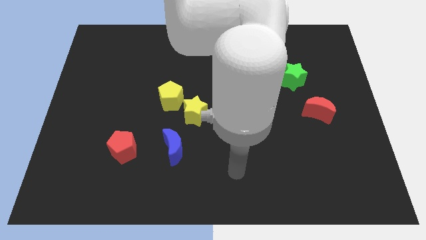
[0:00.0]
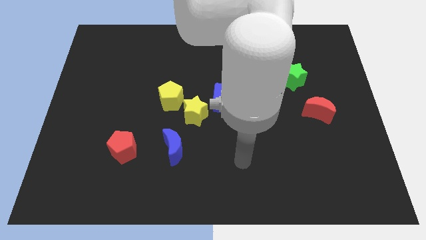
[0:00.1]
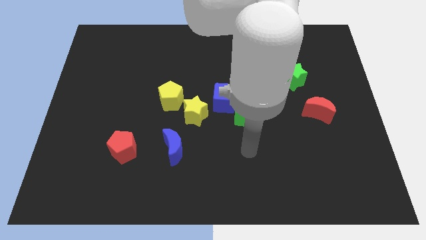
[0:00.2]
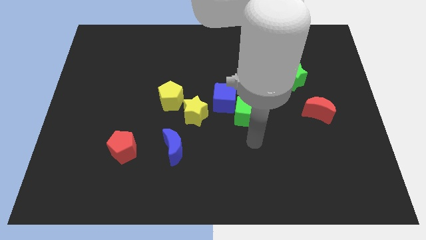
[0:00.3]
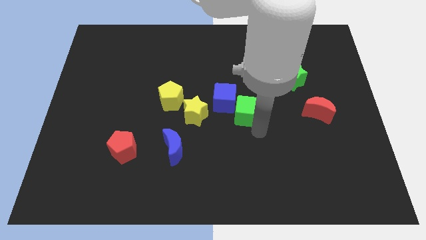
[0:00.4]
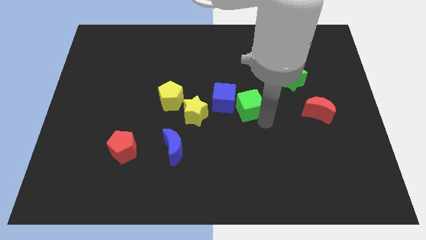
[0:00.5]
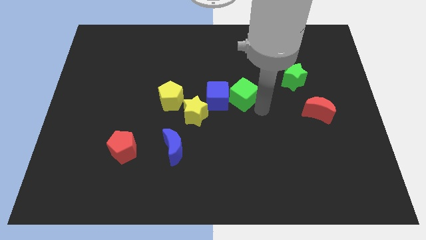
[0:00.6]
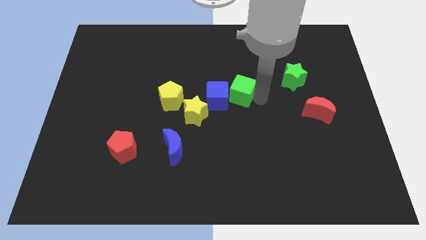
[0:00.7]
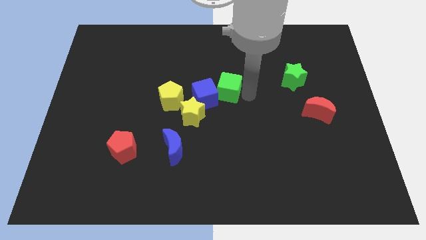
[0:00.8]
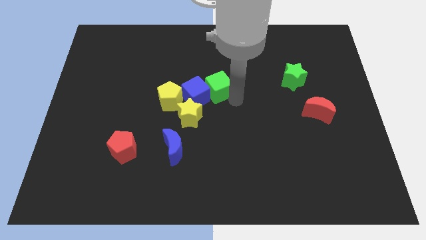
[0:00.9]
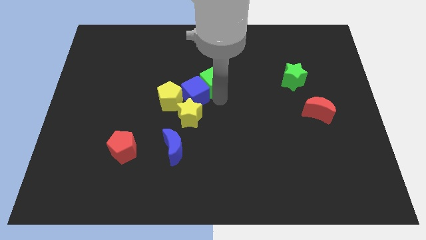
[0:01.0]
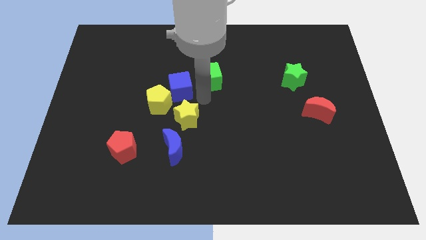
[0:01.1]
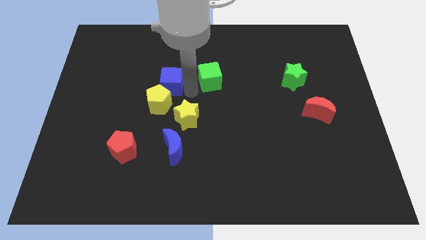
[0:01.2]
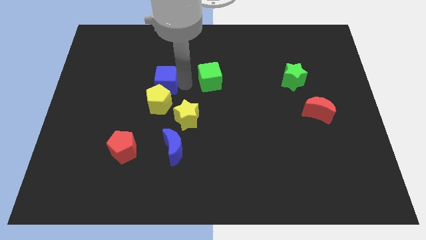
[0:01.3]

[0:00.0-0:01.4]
separate the green cube from the blue cube

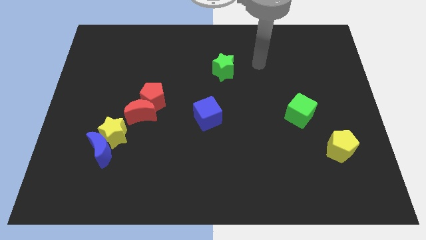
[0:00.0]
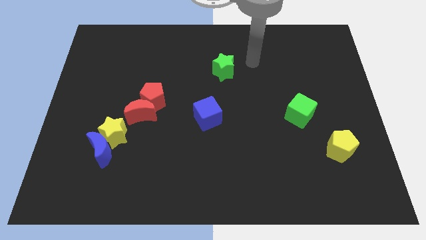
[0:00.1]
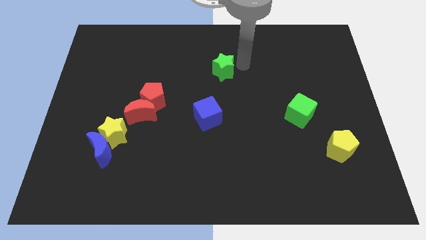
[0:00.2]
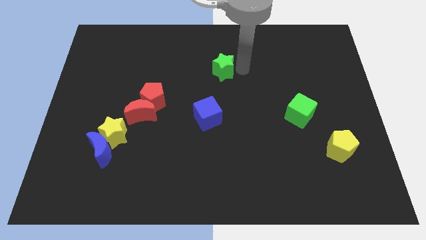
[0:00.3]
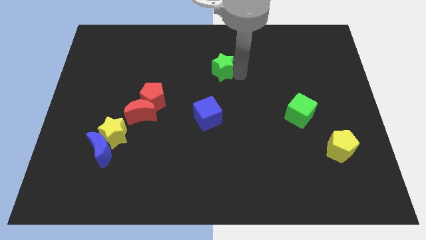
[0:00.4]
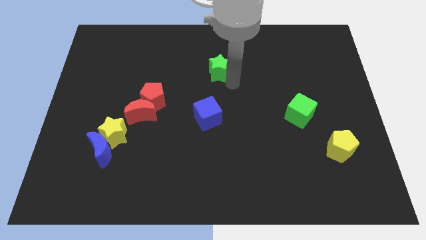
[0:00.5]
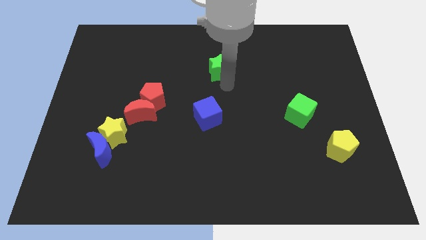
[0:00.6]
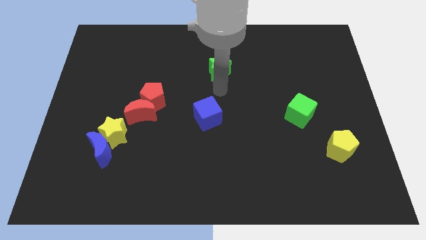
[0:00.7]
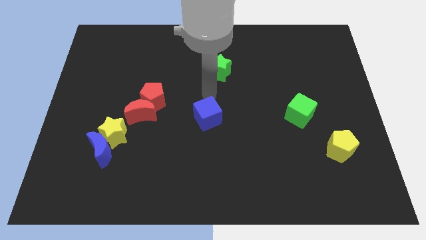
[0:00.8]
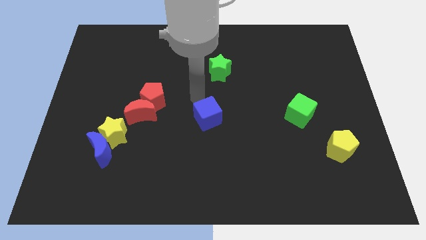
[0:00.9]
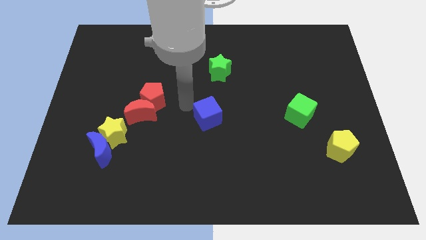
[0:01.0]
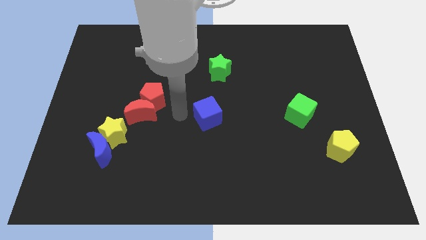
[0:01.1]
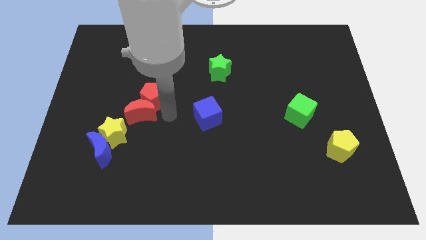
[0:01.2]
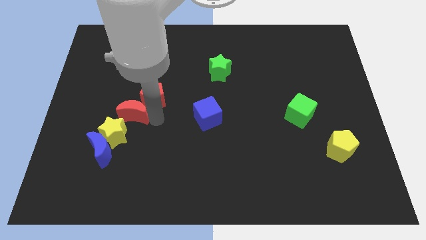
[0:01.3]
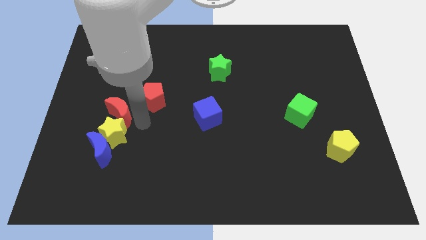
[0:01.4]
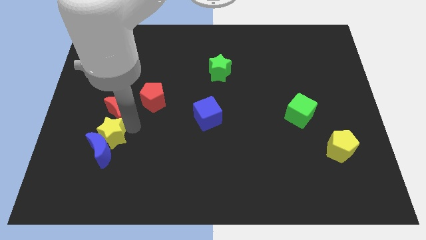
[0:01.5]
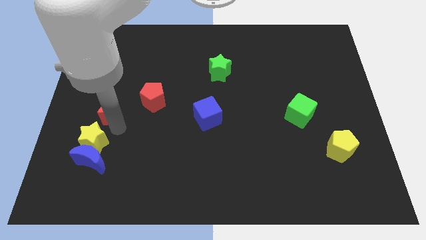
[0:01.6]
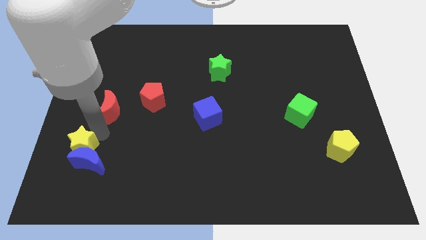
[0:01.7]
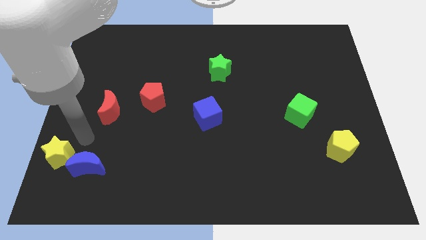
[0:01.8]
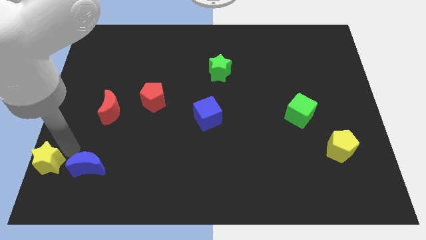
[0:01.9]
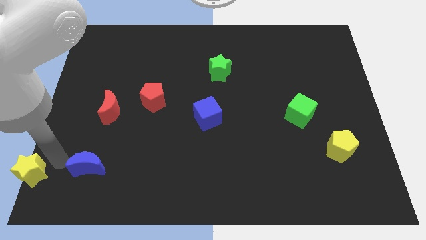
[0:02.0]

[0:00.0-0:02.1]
pull the blue moon apart from the yellow star

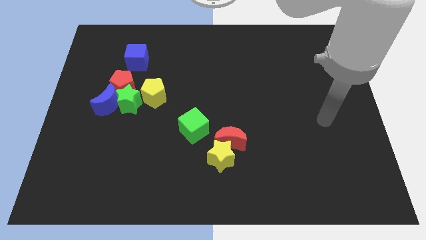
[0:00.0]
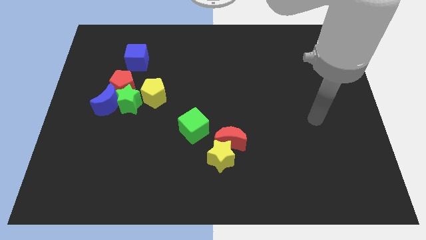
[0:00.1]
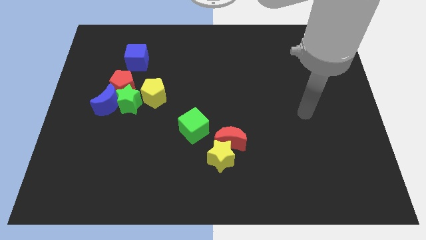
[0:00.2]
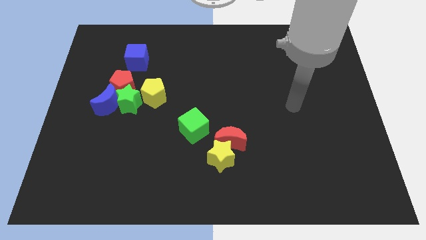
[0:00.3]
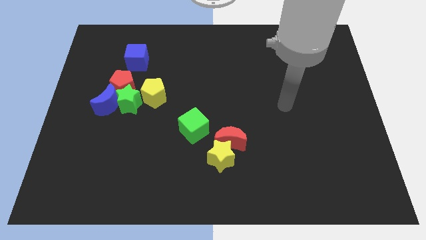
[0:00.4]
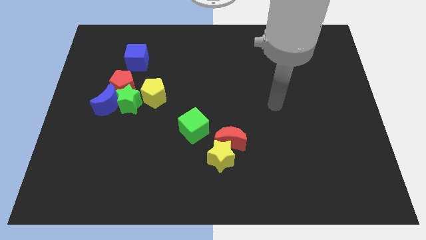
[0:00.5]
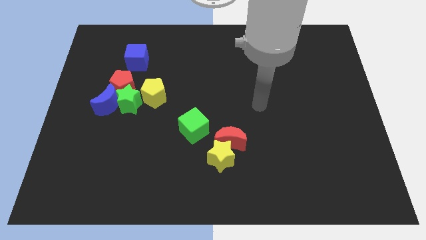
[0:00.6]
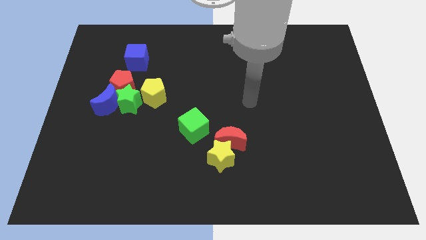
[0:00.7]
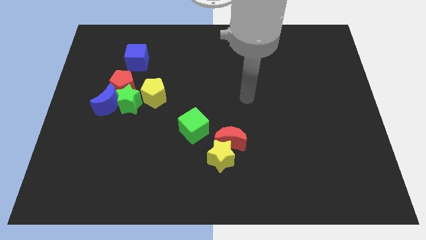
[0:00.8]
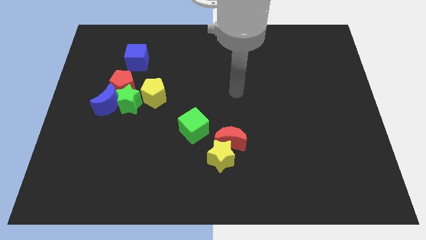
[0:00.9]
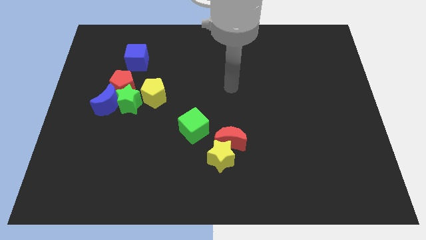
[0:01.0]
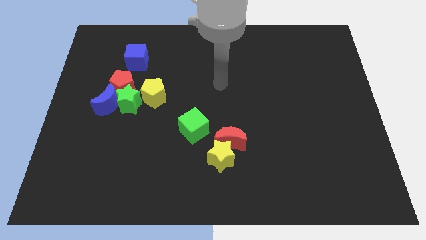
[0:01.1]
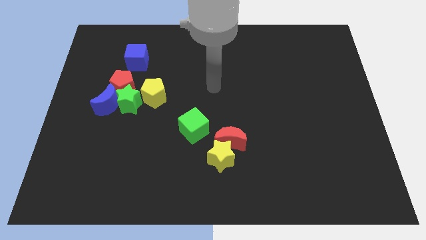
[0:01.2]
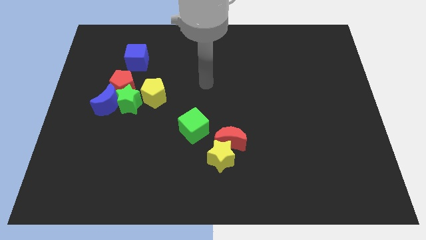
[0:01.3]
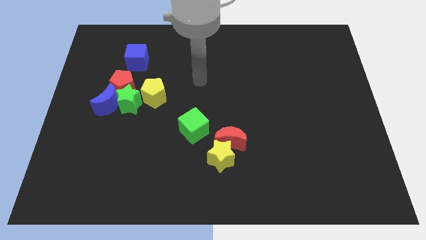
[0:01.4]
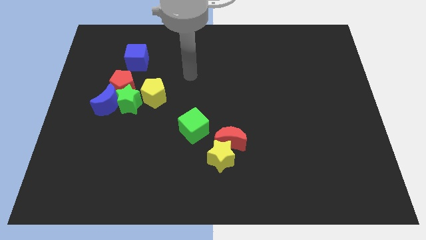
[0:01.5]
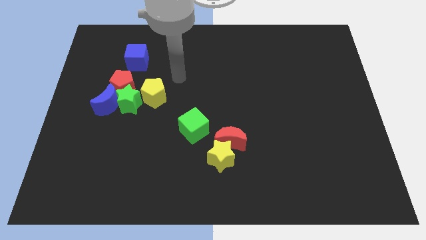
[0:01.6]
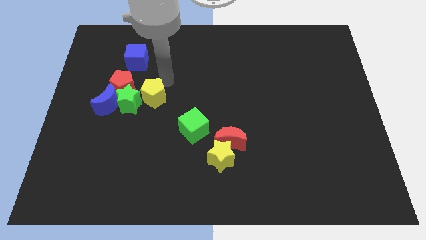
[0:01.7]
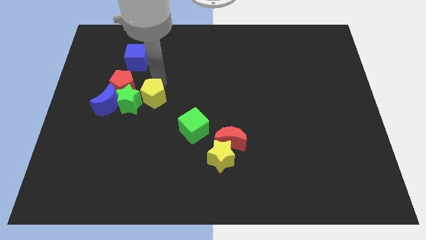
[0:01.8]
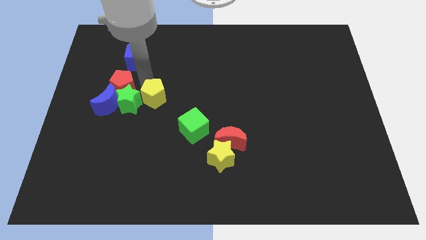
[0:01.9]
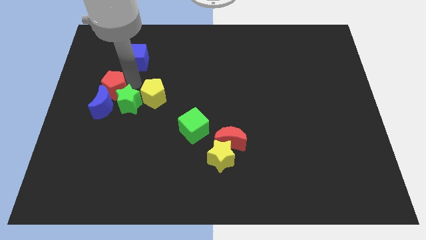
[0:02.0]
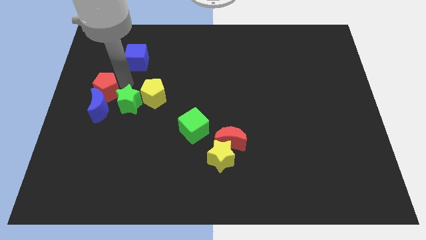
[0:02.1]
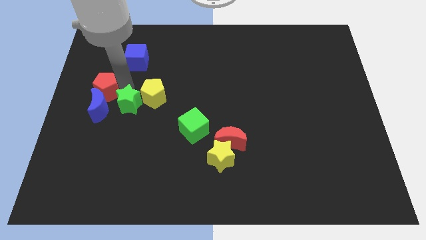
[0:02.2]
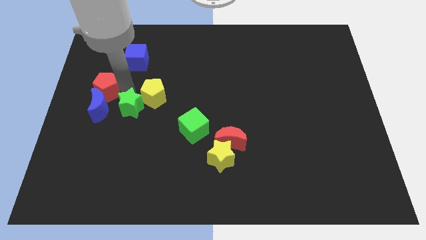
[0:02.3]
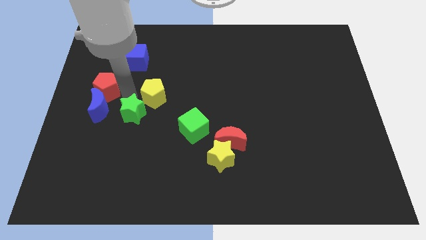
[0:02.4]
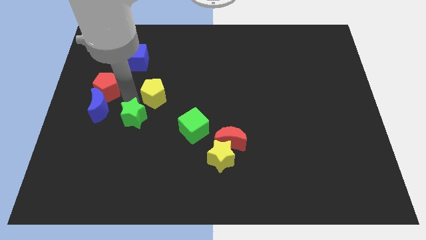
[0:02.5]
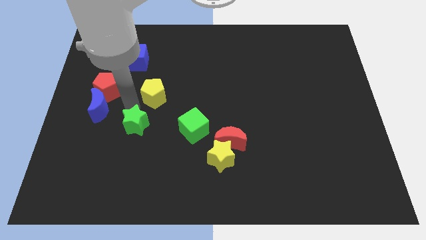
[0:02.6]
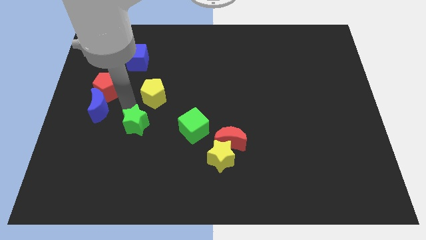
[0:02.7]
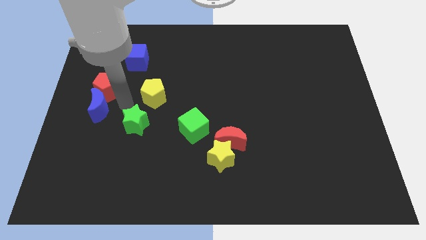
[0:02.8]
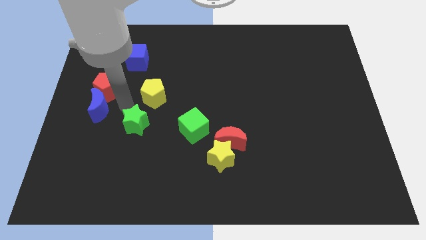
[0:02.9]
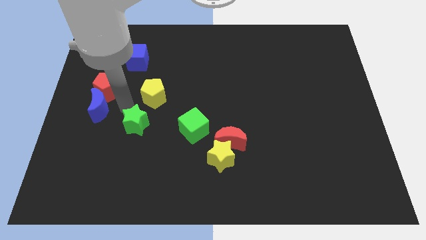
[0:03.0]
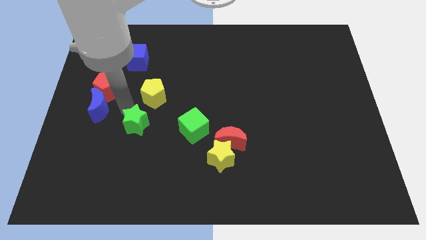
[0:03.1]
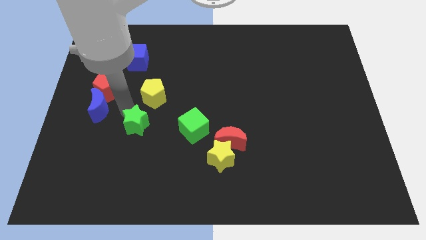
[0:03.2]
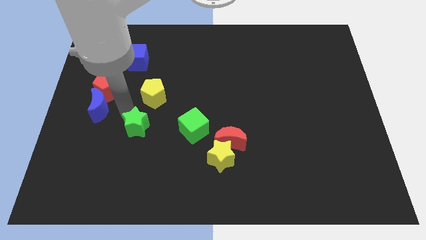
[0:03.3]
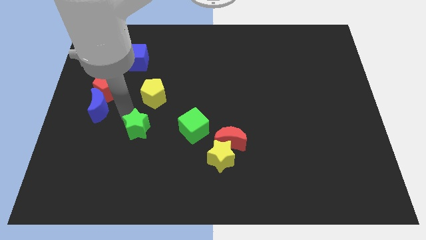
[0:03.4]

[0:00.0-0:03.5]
move the green star away from the clump

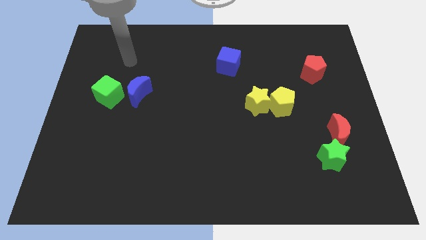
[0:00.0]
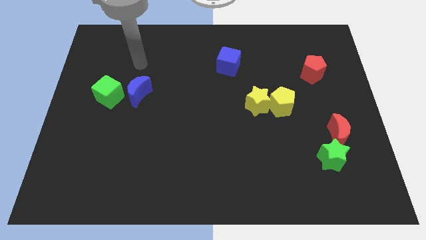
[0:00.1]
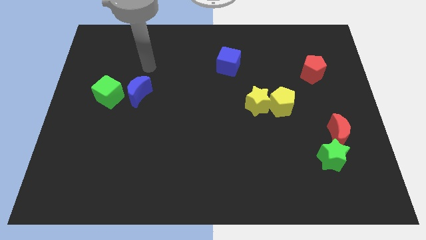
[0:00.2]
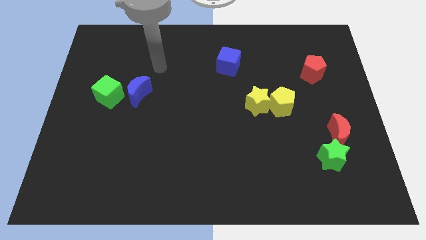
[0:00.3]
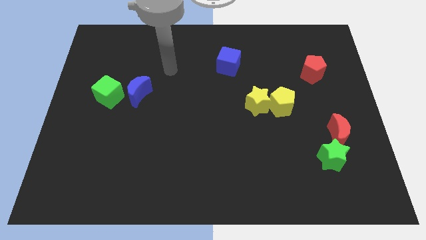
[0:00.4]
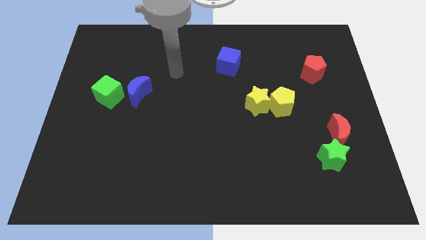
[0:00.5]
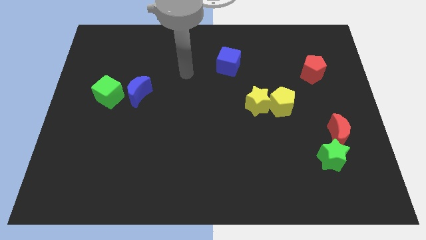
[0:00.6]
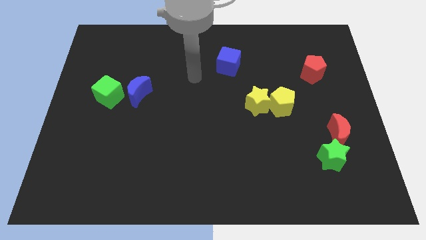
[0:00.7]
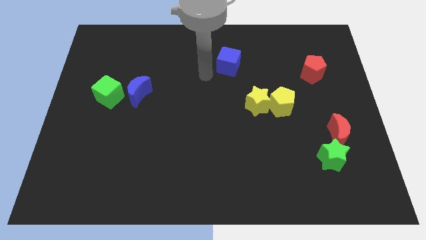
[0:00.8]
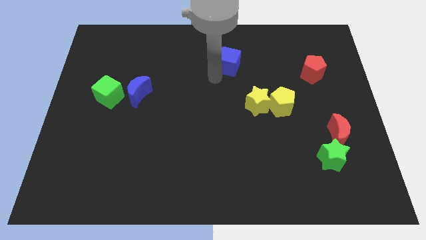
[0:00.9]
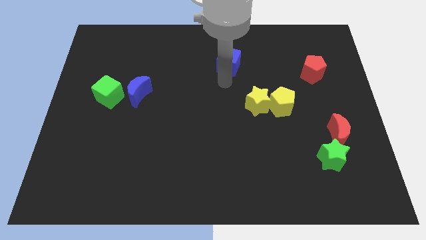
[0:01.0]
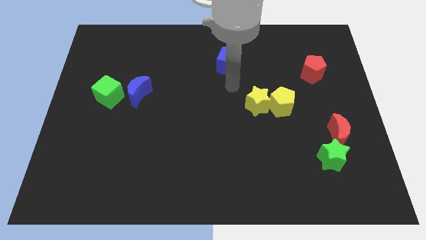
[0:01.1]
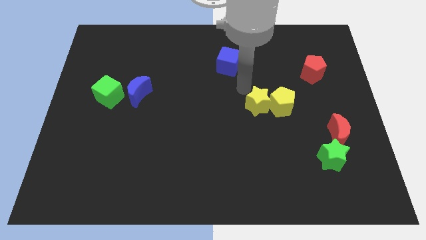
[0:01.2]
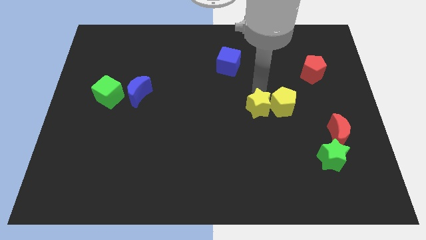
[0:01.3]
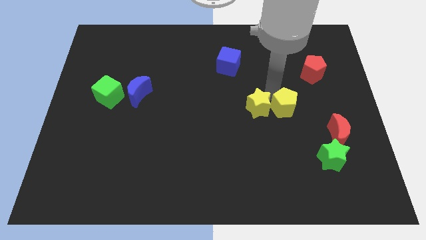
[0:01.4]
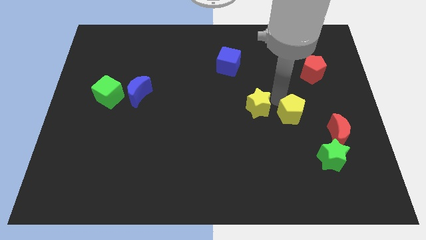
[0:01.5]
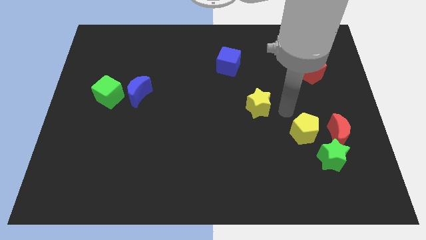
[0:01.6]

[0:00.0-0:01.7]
pull the yellow star apart from the yellow pentagon

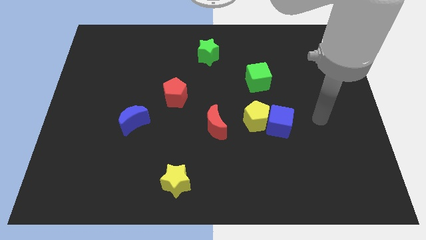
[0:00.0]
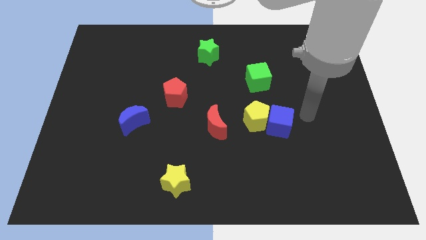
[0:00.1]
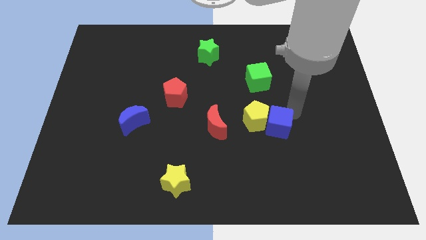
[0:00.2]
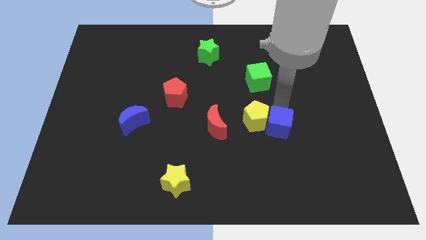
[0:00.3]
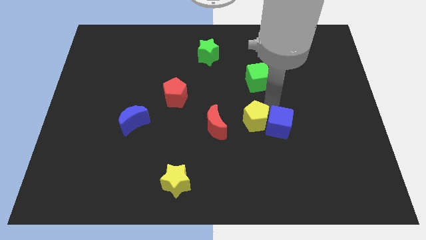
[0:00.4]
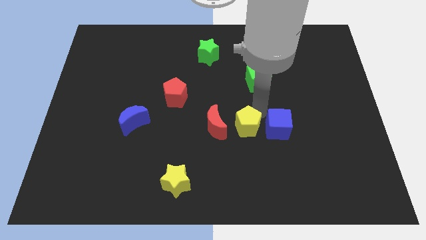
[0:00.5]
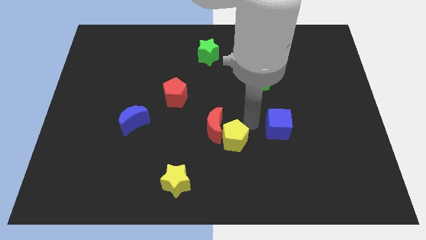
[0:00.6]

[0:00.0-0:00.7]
pull the blue cube apart from the yellow pentagon
